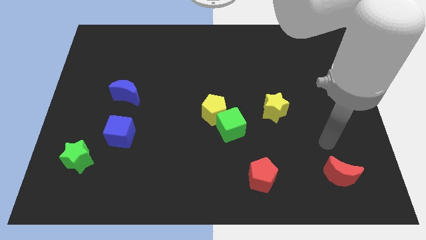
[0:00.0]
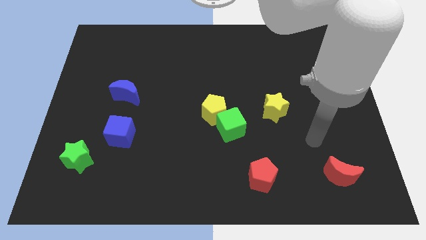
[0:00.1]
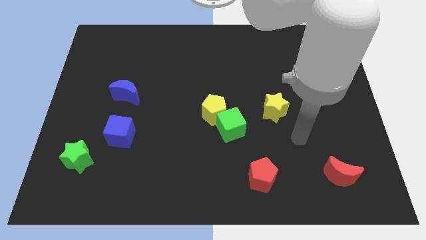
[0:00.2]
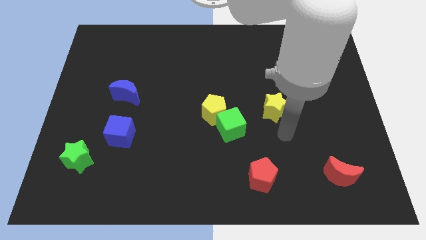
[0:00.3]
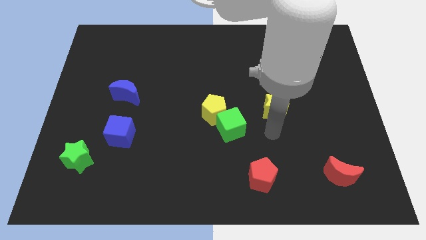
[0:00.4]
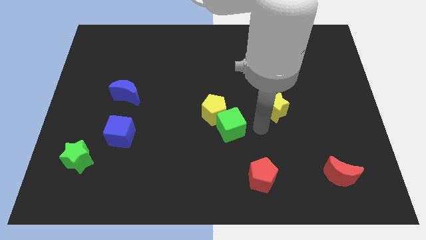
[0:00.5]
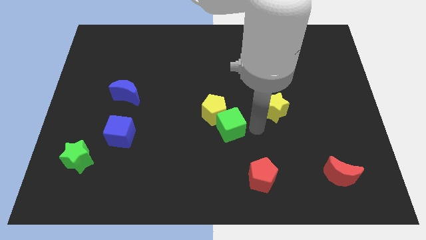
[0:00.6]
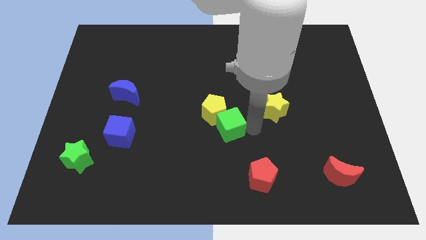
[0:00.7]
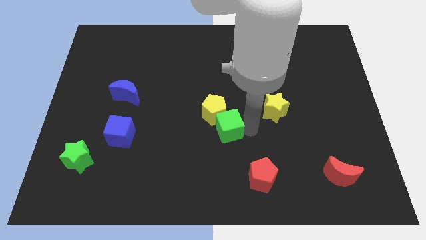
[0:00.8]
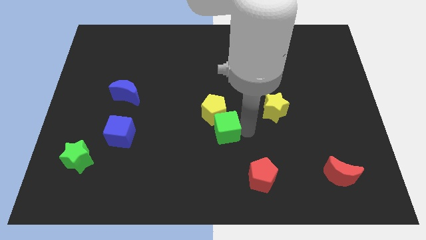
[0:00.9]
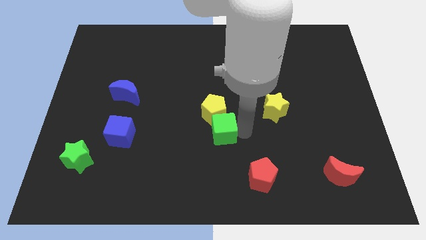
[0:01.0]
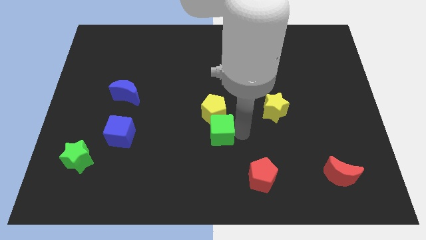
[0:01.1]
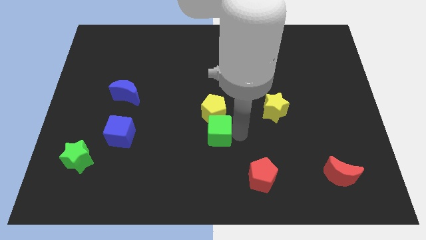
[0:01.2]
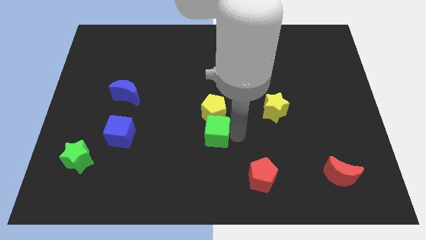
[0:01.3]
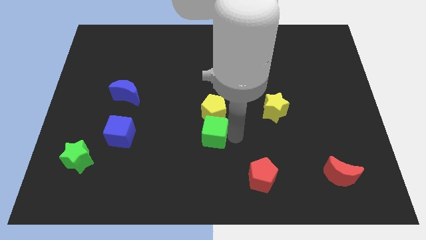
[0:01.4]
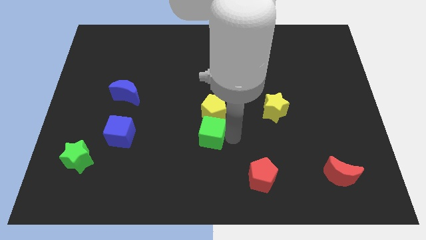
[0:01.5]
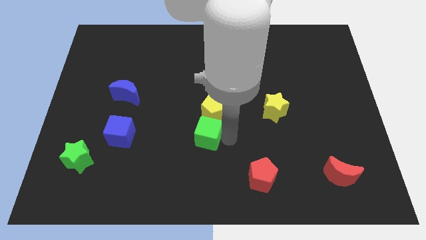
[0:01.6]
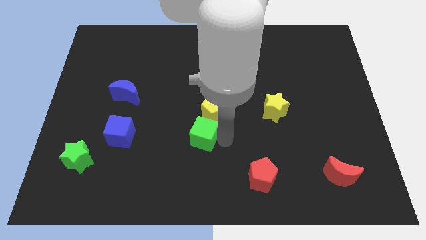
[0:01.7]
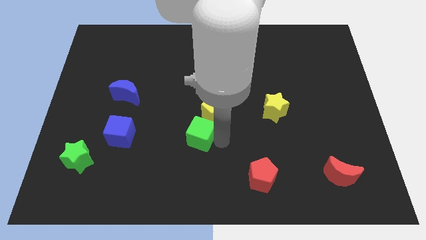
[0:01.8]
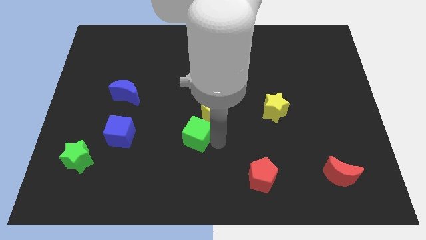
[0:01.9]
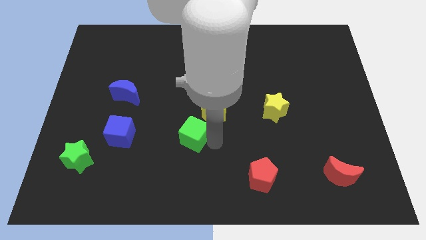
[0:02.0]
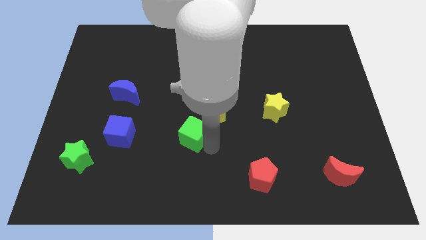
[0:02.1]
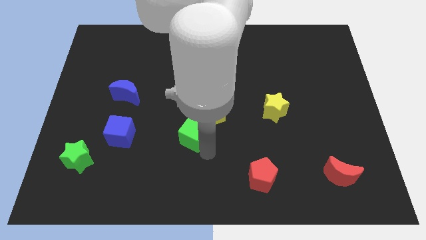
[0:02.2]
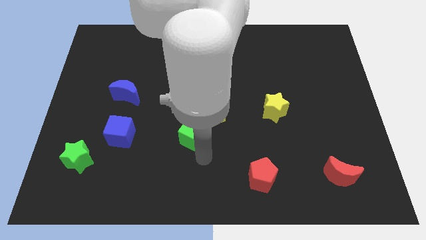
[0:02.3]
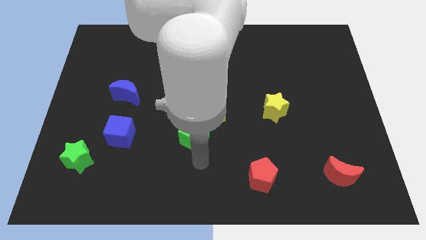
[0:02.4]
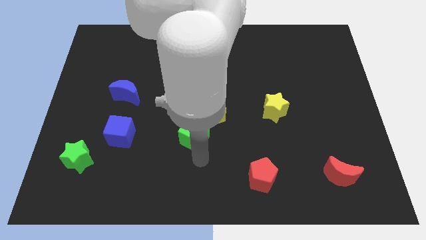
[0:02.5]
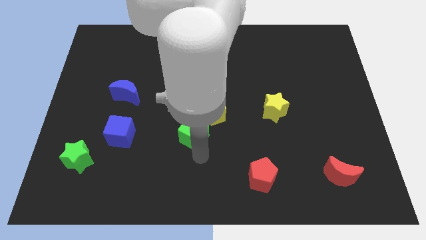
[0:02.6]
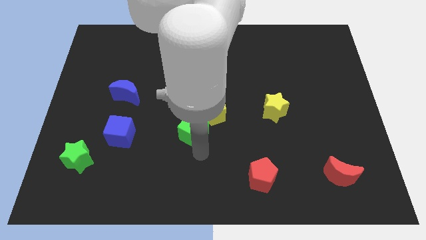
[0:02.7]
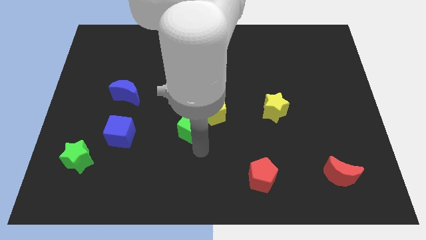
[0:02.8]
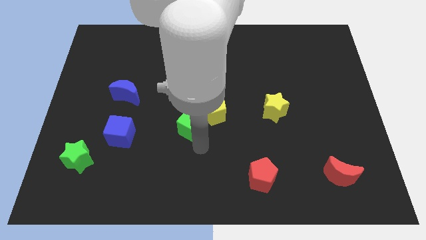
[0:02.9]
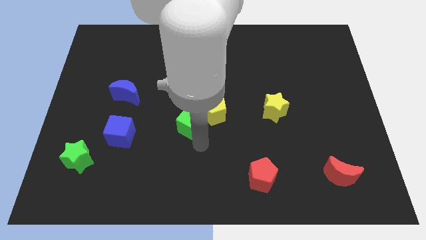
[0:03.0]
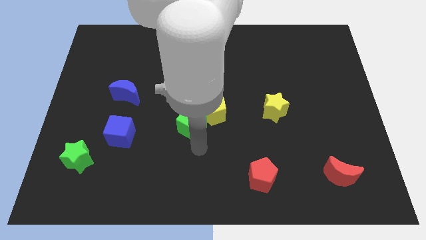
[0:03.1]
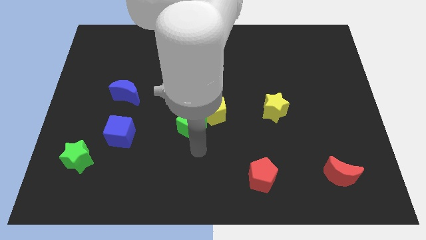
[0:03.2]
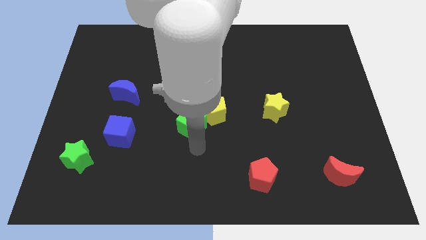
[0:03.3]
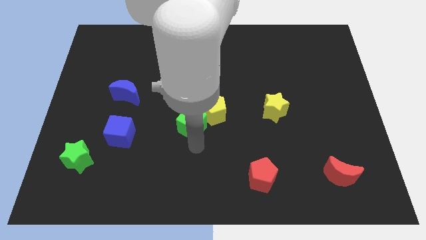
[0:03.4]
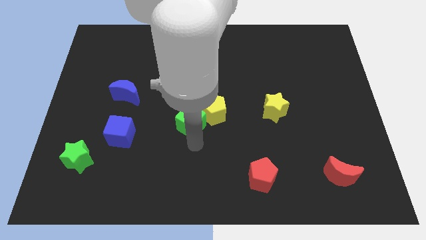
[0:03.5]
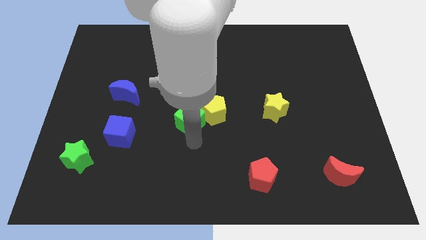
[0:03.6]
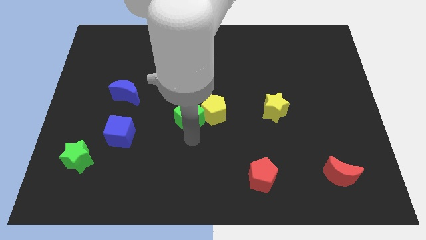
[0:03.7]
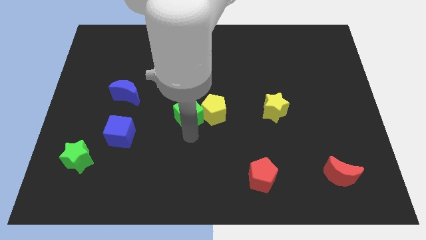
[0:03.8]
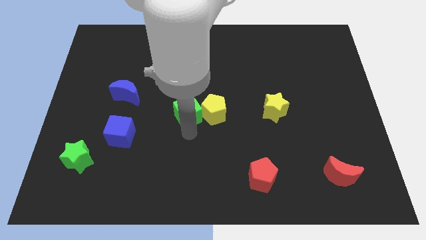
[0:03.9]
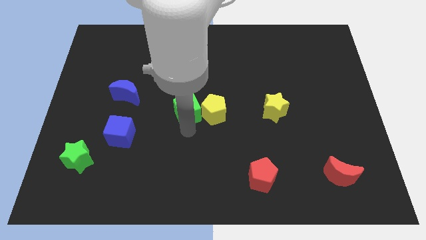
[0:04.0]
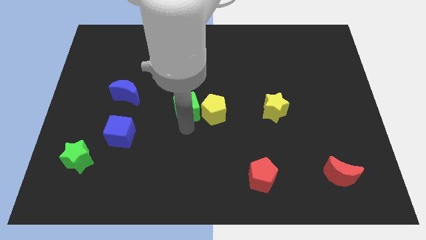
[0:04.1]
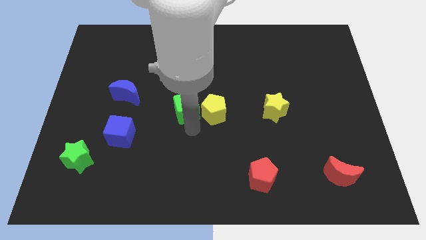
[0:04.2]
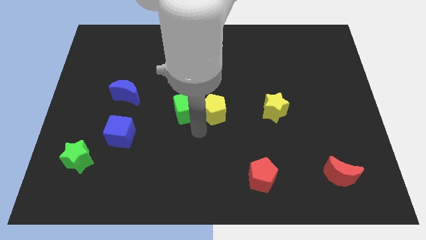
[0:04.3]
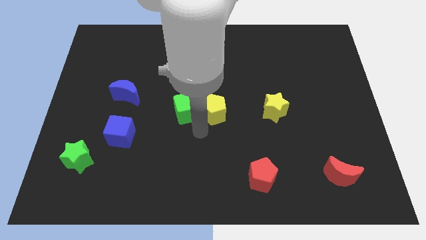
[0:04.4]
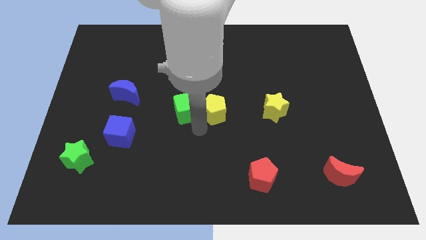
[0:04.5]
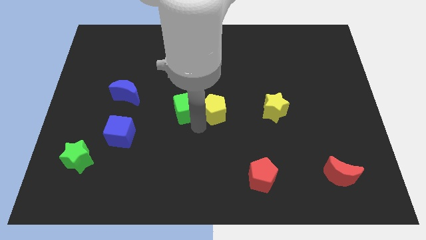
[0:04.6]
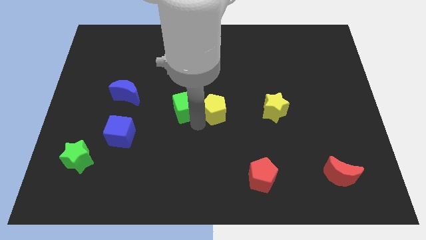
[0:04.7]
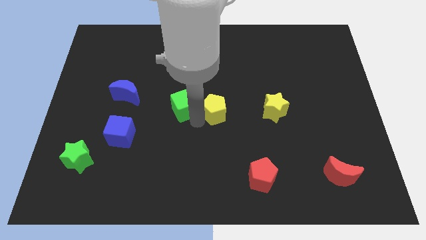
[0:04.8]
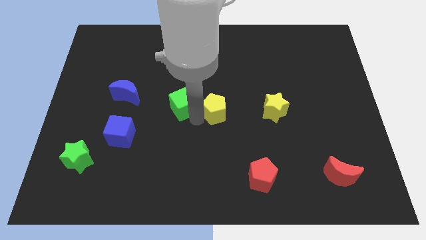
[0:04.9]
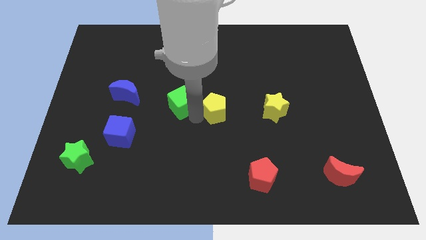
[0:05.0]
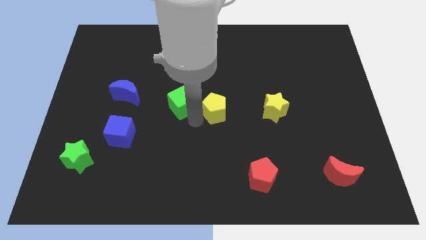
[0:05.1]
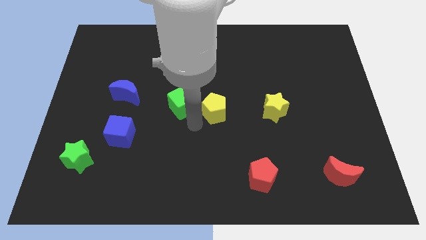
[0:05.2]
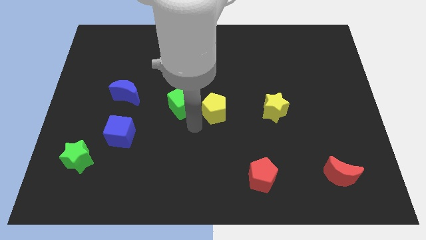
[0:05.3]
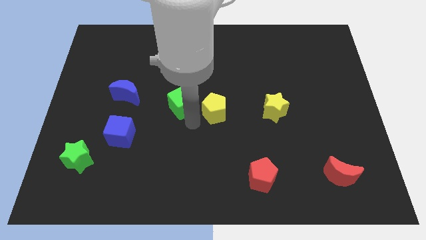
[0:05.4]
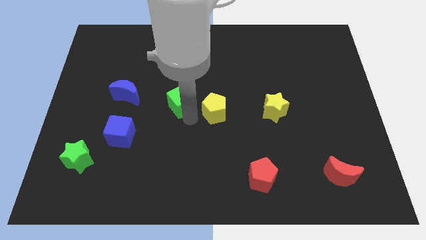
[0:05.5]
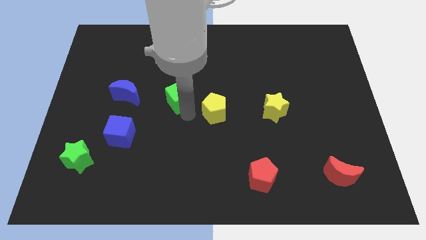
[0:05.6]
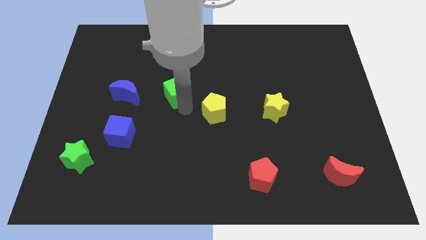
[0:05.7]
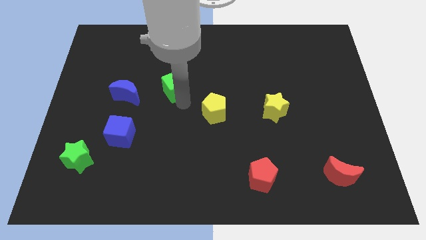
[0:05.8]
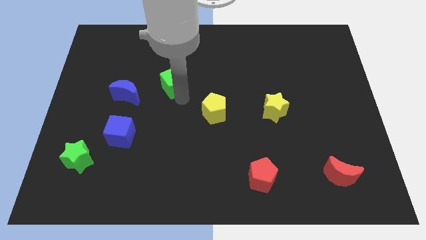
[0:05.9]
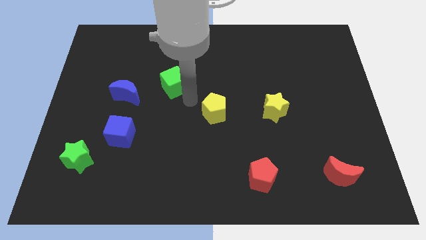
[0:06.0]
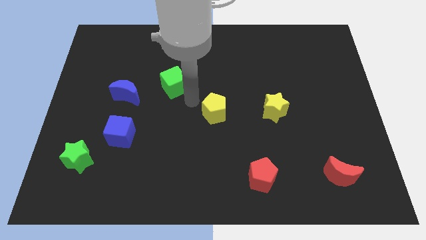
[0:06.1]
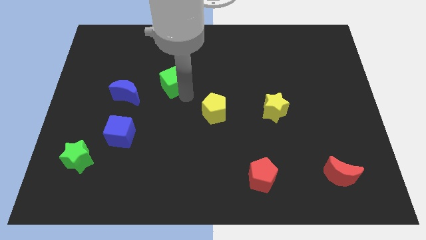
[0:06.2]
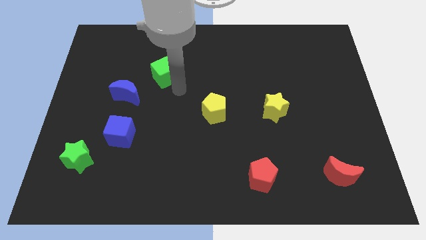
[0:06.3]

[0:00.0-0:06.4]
move the green cube diagonally upwards and to the left

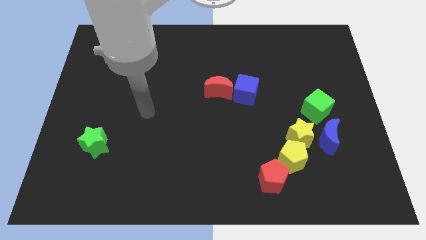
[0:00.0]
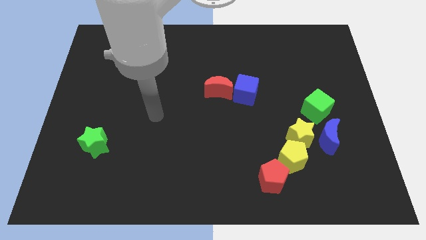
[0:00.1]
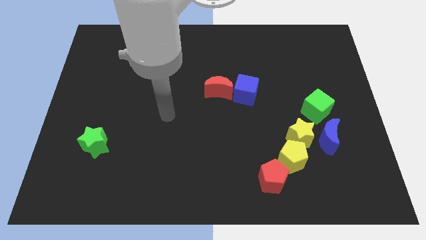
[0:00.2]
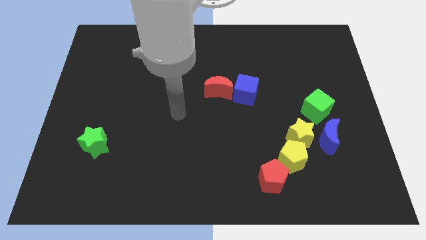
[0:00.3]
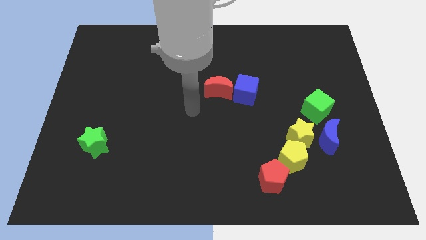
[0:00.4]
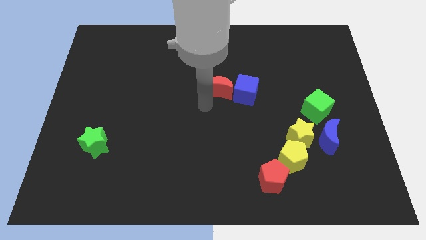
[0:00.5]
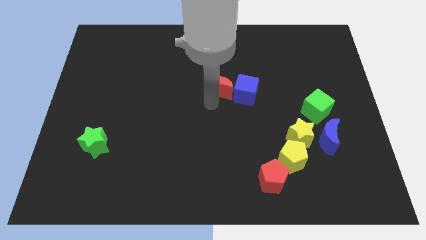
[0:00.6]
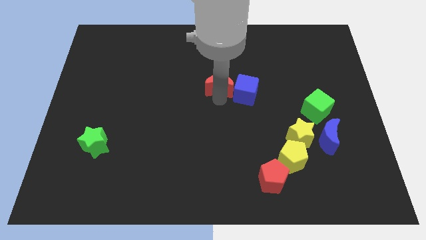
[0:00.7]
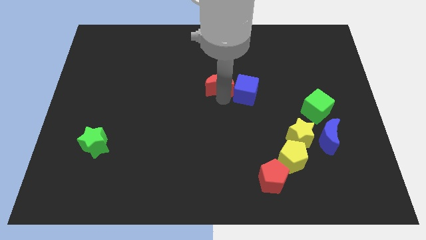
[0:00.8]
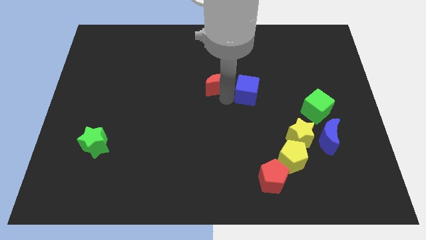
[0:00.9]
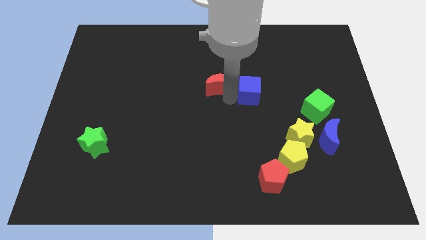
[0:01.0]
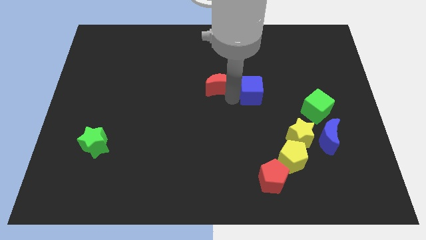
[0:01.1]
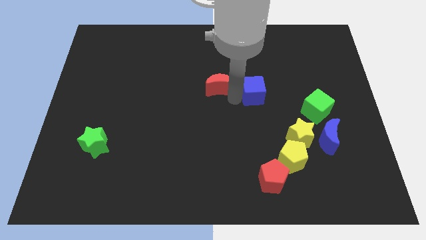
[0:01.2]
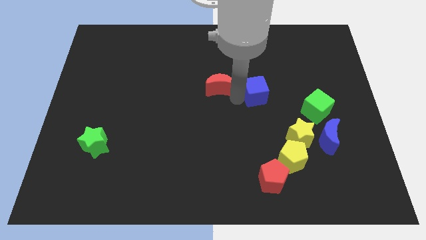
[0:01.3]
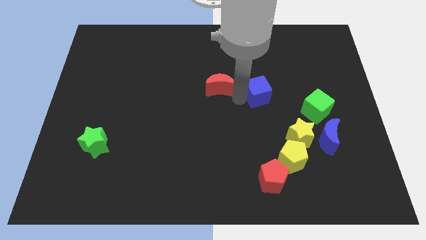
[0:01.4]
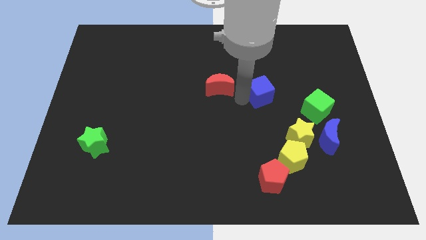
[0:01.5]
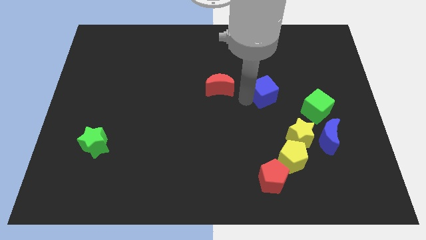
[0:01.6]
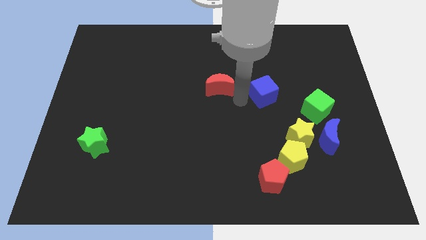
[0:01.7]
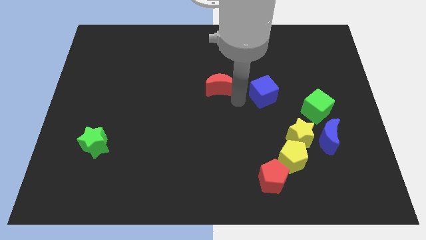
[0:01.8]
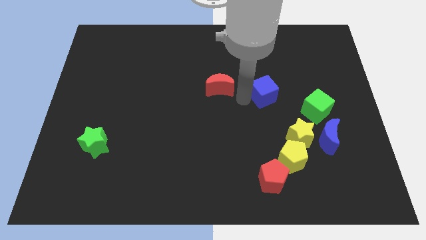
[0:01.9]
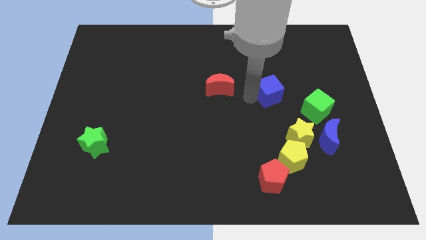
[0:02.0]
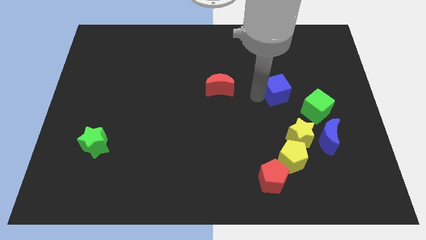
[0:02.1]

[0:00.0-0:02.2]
push the blue cube a little right
